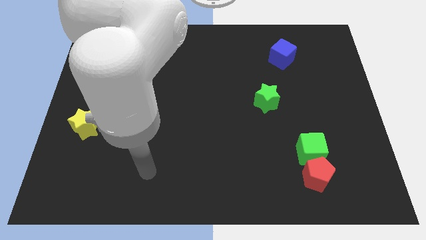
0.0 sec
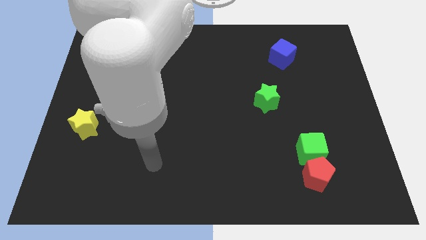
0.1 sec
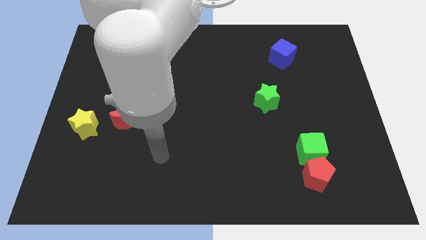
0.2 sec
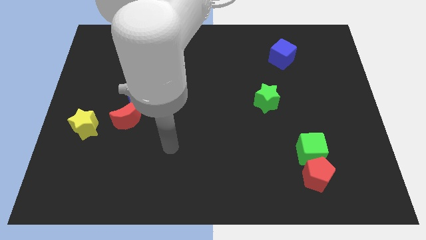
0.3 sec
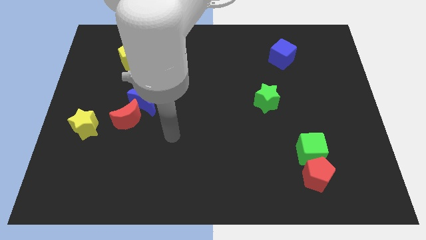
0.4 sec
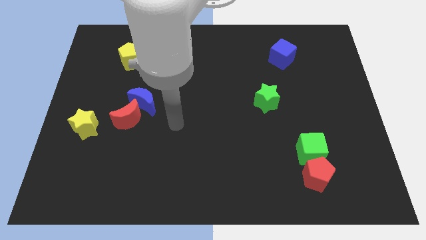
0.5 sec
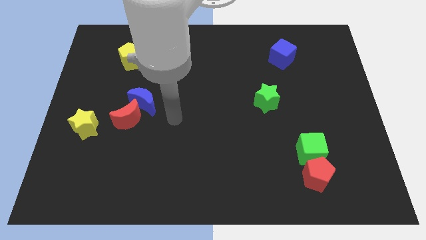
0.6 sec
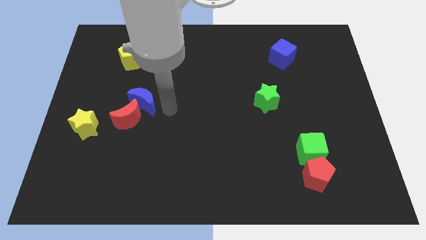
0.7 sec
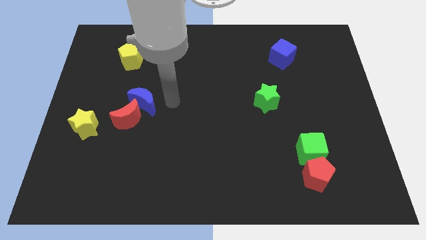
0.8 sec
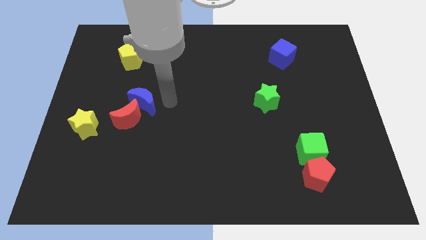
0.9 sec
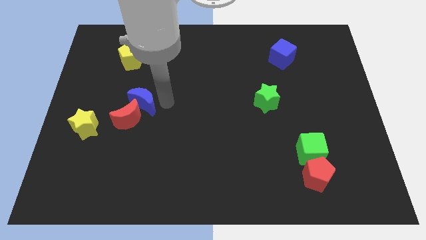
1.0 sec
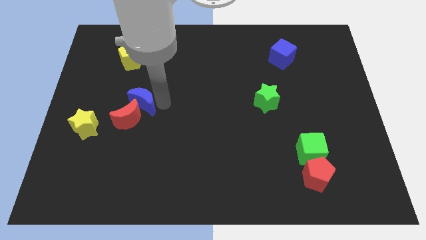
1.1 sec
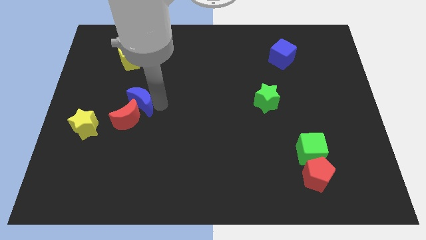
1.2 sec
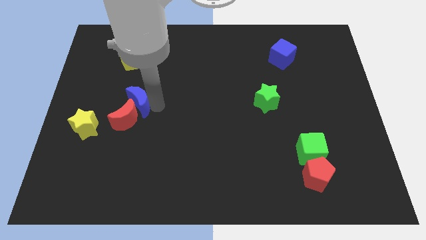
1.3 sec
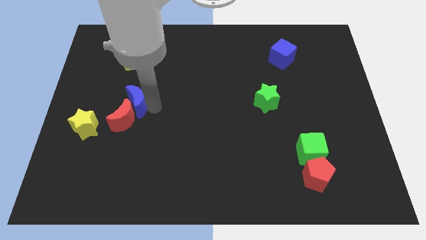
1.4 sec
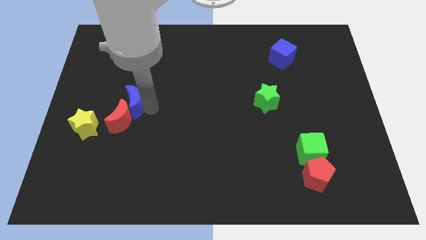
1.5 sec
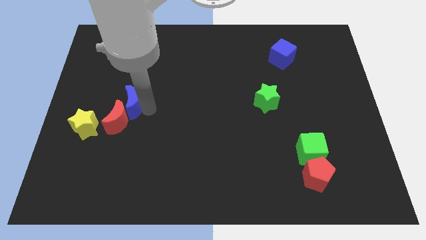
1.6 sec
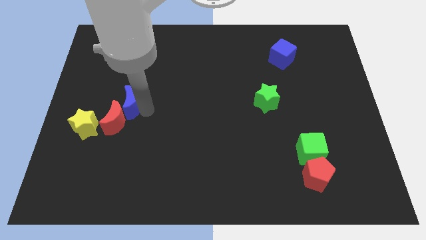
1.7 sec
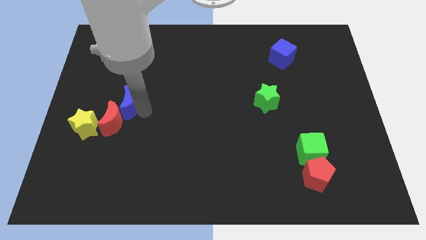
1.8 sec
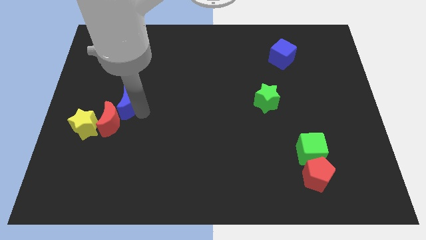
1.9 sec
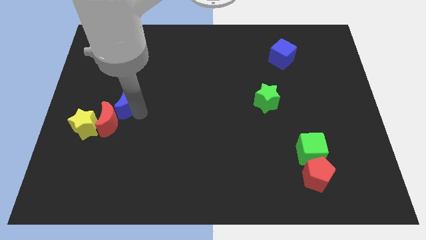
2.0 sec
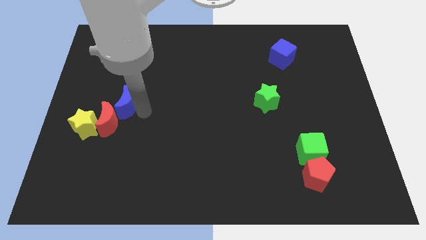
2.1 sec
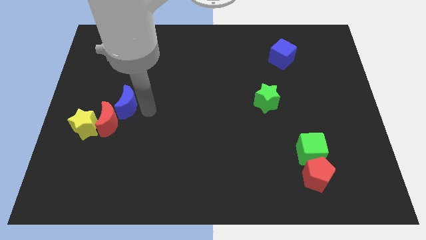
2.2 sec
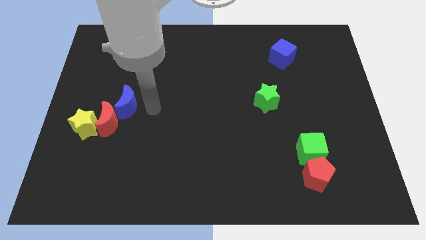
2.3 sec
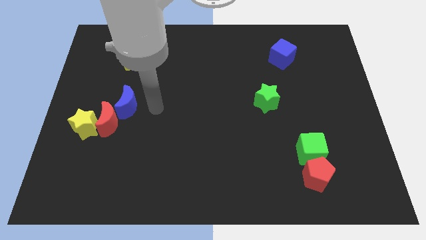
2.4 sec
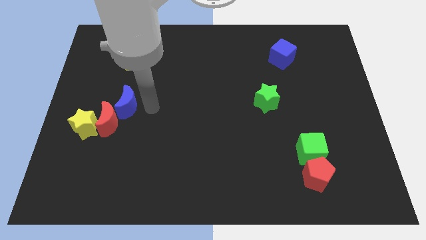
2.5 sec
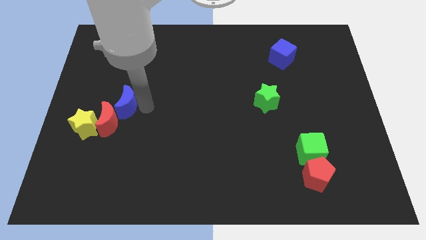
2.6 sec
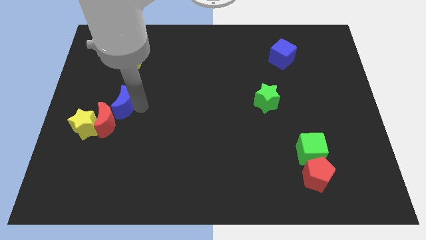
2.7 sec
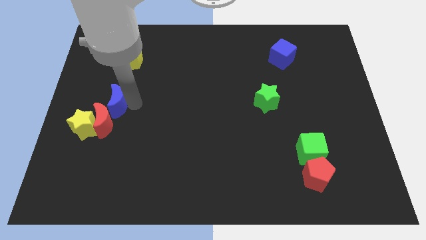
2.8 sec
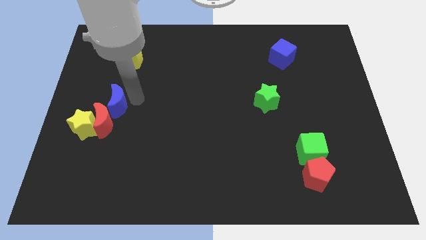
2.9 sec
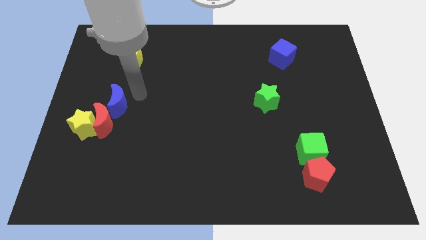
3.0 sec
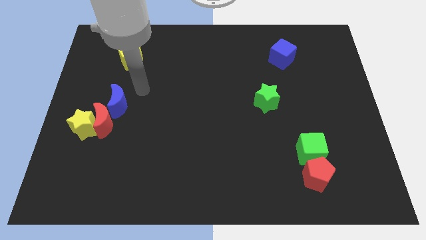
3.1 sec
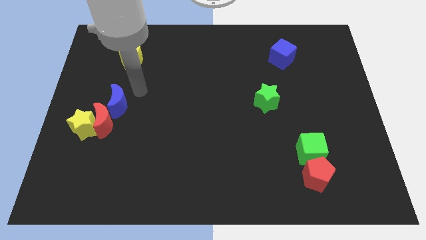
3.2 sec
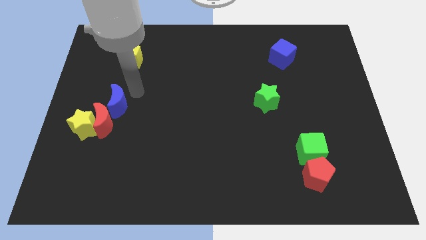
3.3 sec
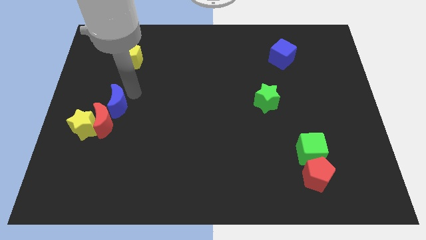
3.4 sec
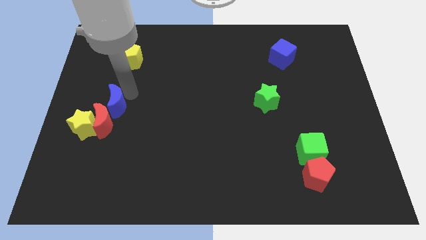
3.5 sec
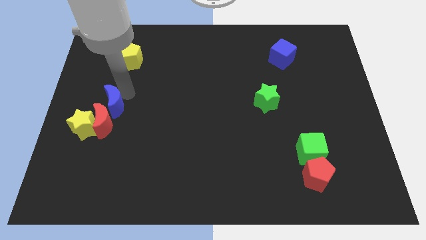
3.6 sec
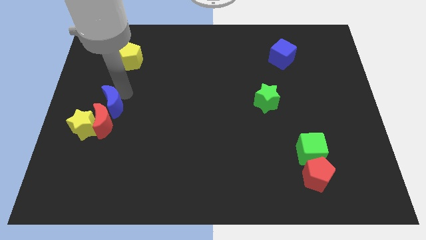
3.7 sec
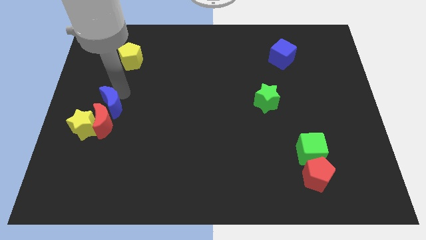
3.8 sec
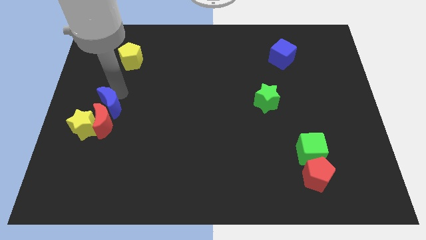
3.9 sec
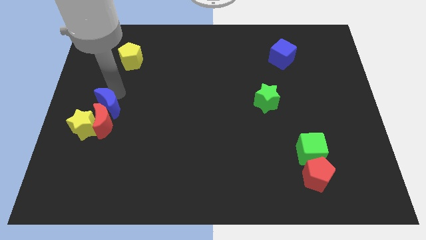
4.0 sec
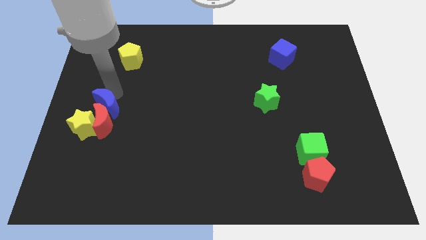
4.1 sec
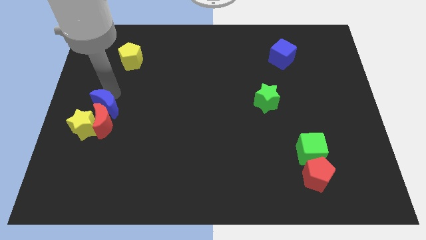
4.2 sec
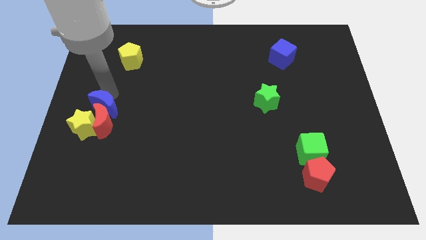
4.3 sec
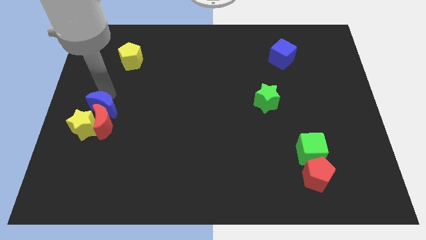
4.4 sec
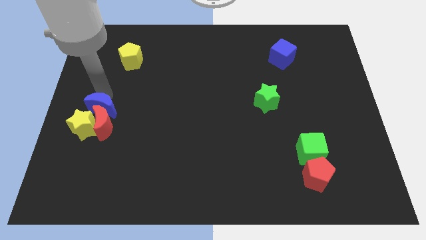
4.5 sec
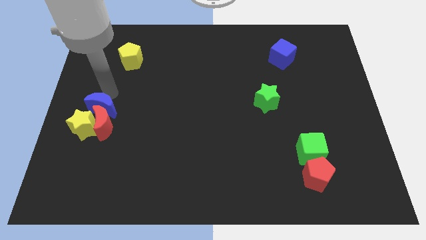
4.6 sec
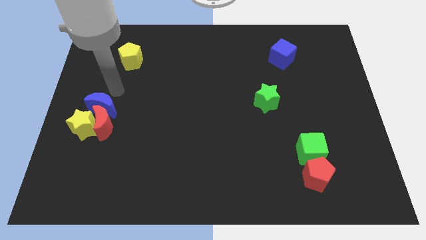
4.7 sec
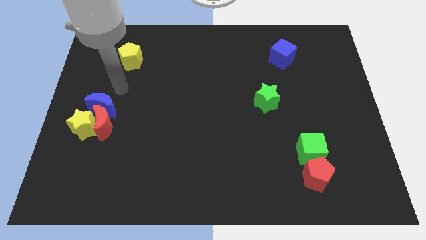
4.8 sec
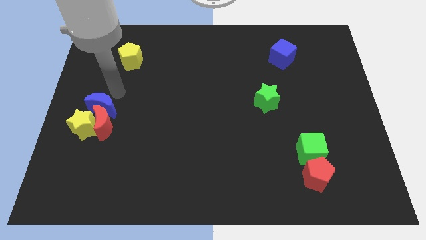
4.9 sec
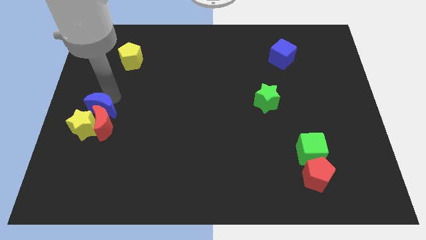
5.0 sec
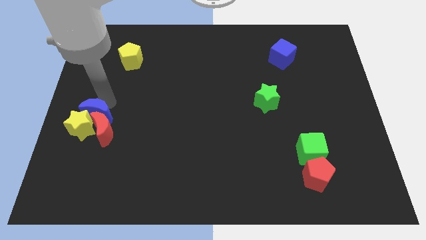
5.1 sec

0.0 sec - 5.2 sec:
push the blue moon to the yellow star

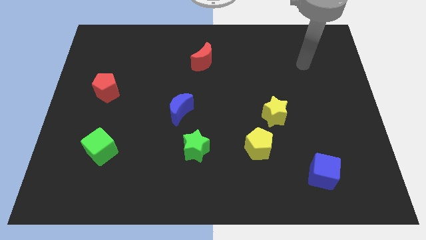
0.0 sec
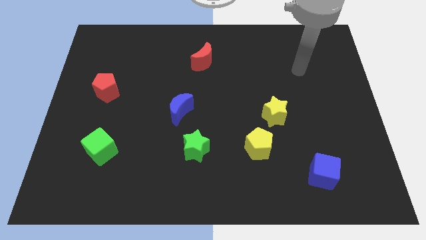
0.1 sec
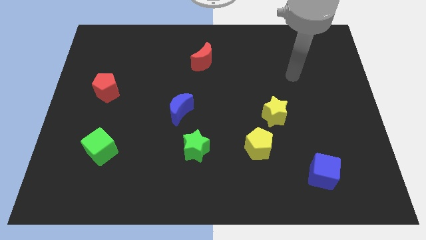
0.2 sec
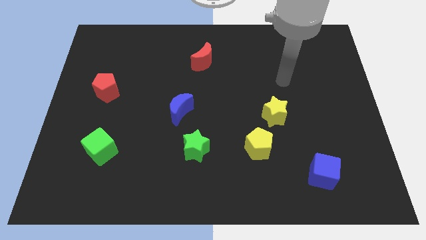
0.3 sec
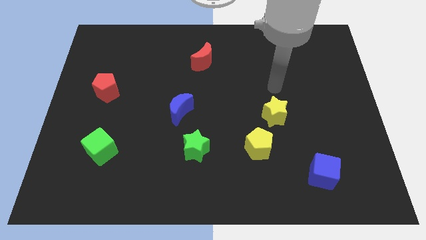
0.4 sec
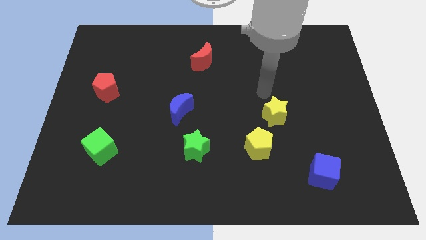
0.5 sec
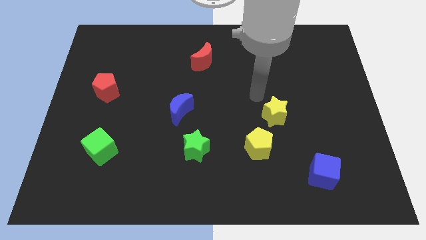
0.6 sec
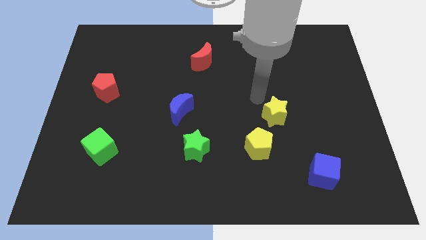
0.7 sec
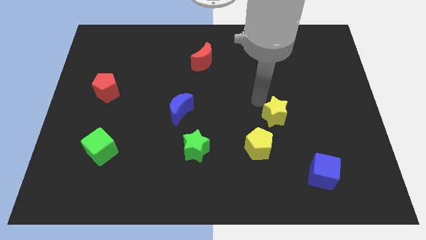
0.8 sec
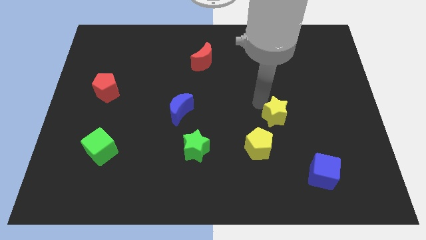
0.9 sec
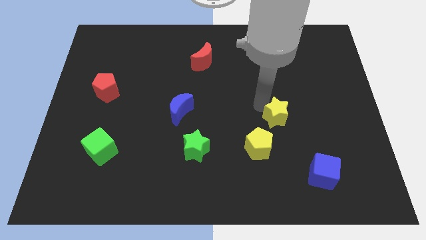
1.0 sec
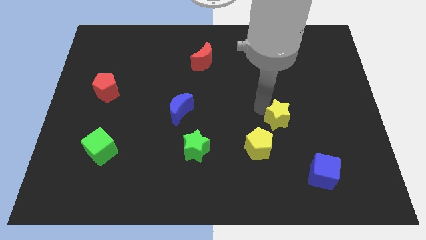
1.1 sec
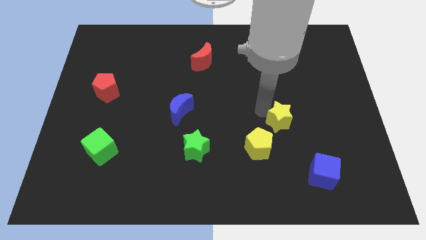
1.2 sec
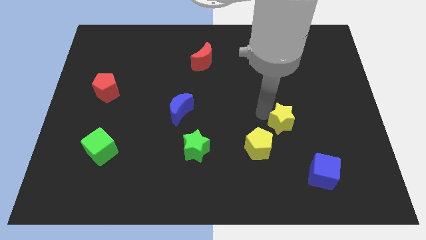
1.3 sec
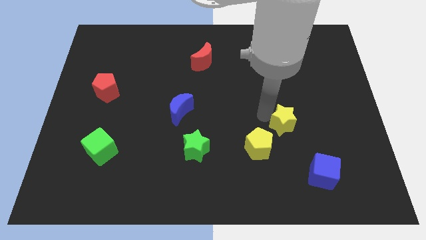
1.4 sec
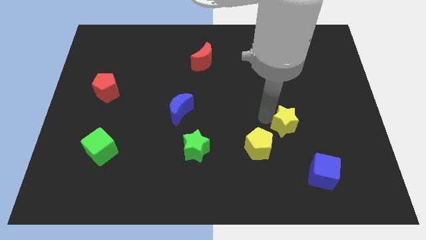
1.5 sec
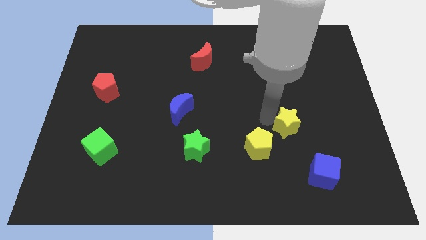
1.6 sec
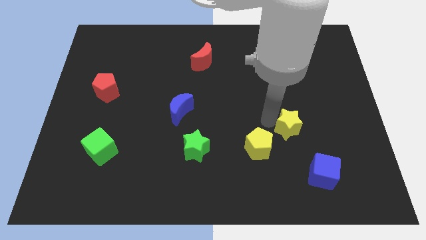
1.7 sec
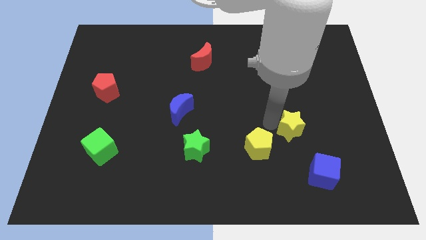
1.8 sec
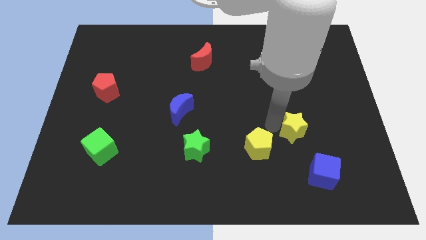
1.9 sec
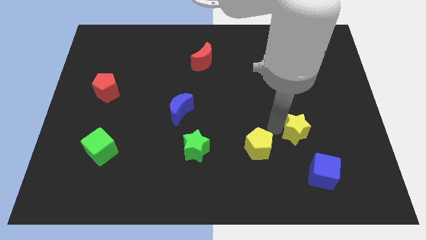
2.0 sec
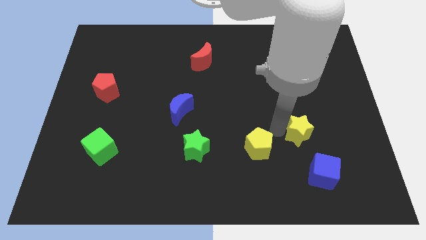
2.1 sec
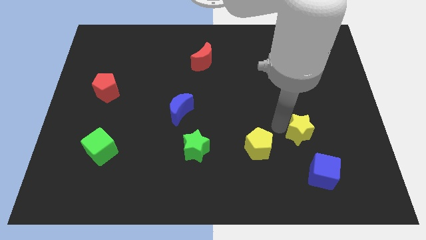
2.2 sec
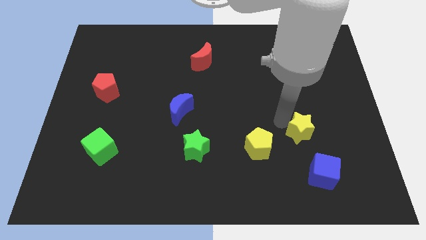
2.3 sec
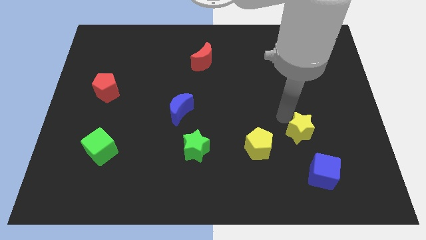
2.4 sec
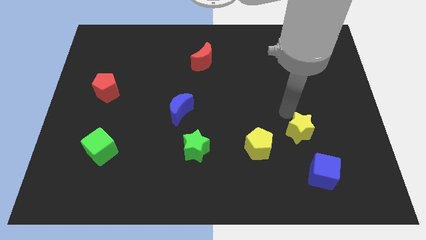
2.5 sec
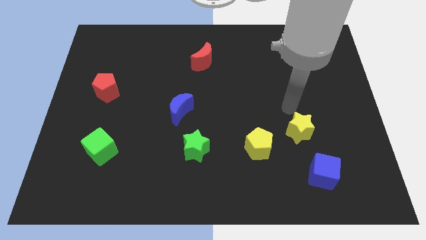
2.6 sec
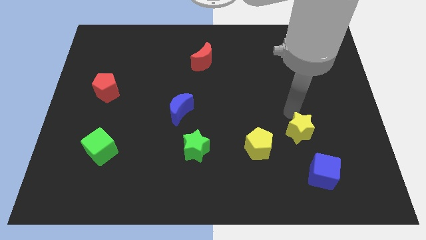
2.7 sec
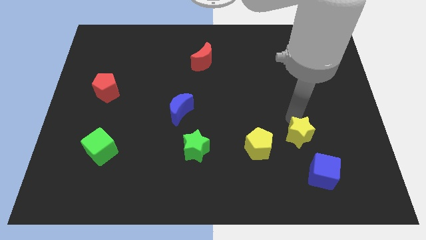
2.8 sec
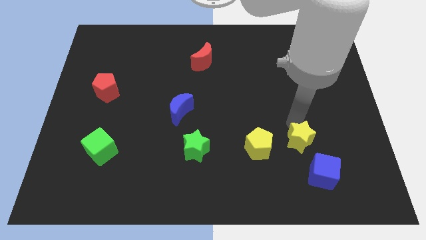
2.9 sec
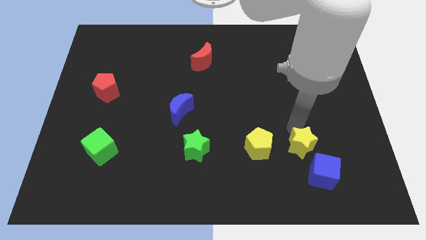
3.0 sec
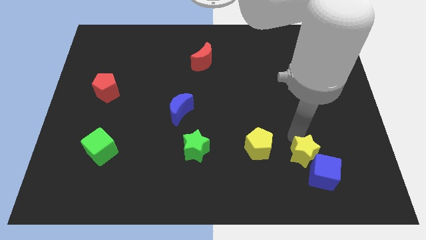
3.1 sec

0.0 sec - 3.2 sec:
move the yellow star next to the blue cube
